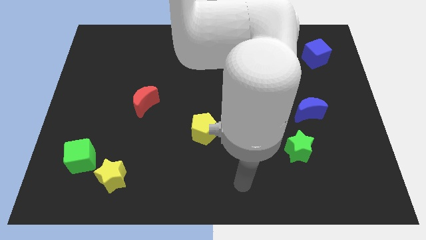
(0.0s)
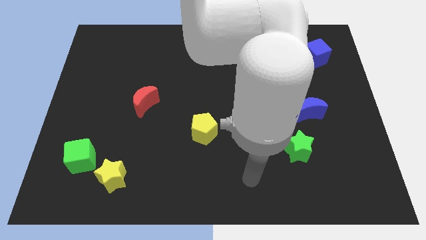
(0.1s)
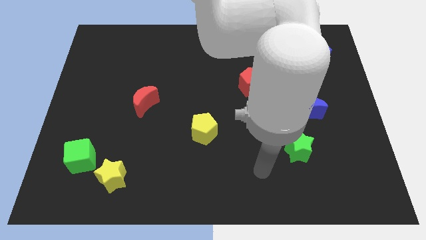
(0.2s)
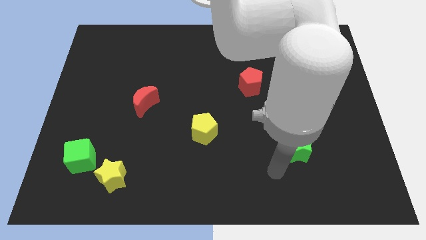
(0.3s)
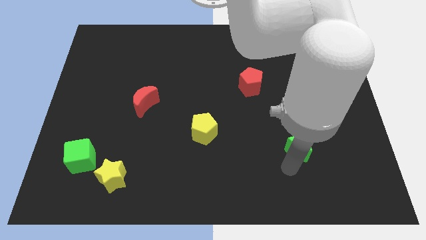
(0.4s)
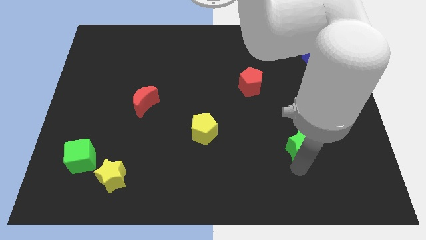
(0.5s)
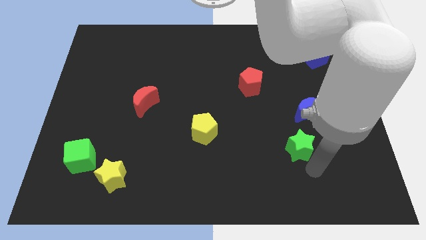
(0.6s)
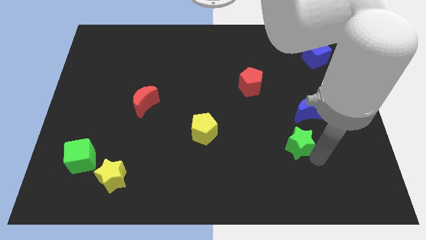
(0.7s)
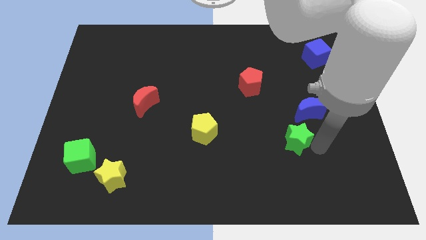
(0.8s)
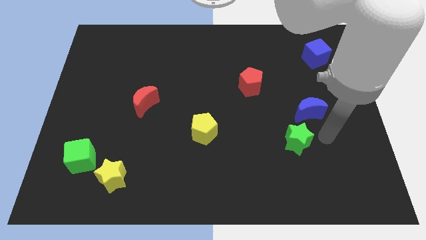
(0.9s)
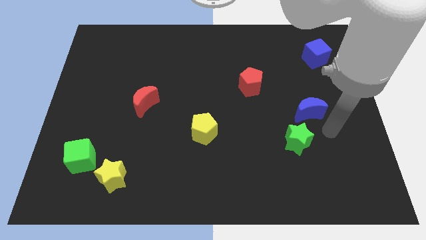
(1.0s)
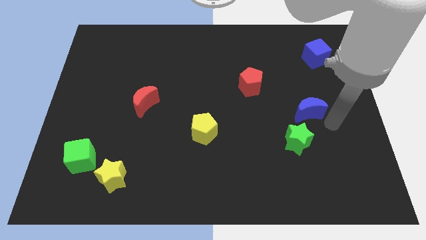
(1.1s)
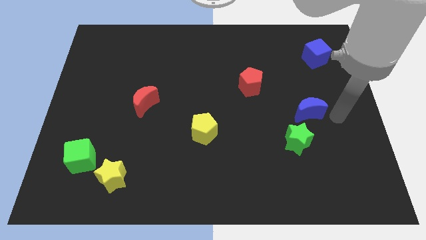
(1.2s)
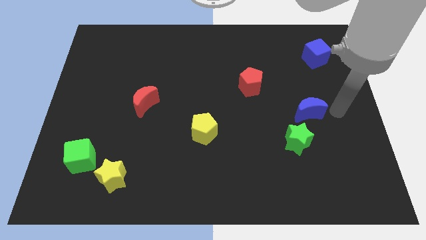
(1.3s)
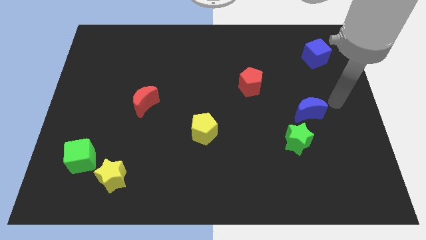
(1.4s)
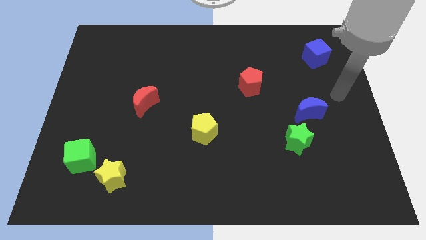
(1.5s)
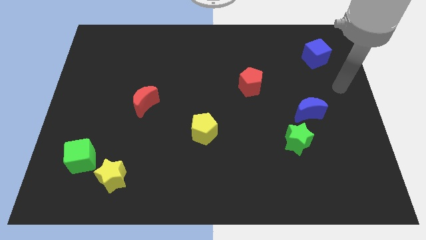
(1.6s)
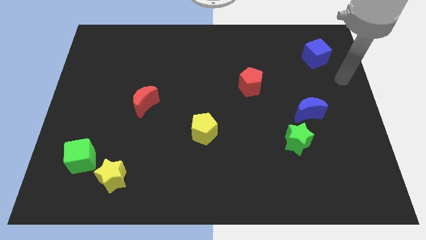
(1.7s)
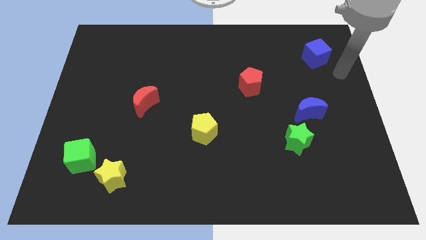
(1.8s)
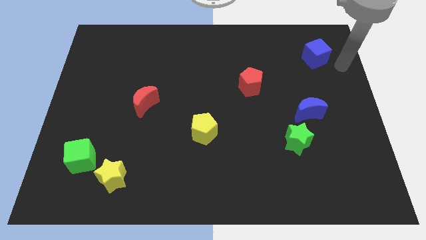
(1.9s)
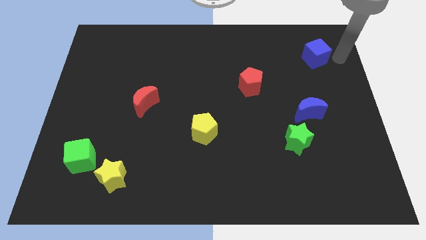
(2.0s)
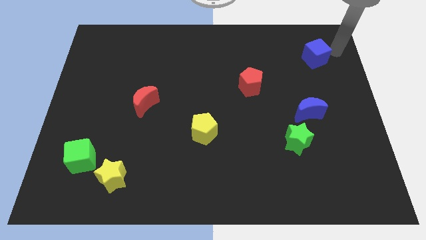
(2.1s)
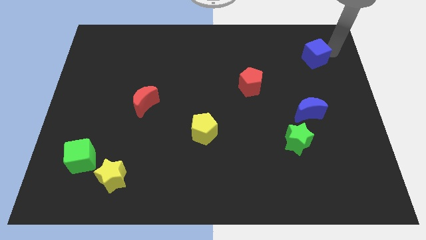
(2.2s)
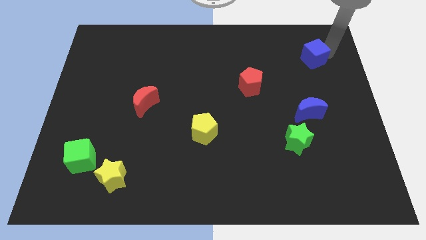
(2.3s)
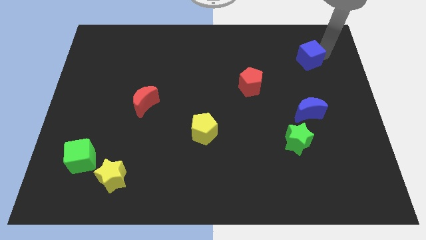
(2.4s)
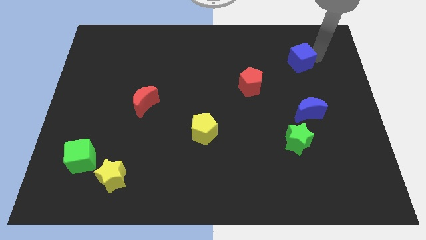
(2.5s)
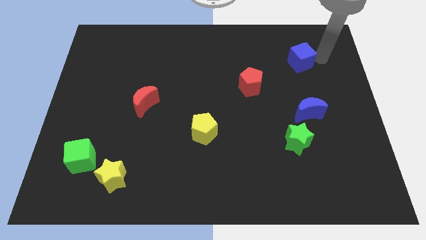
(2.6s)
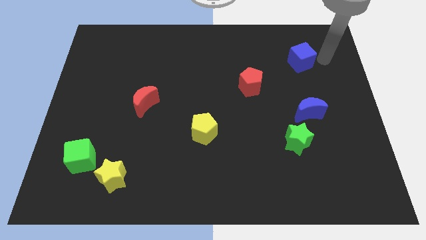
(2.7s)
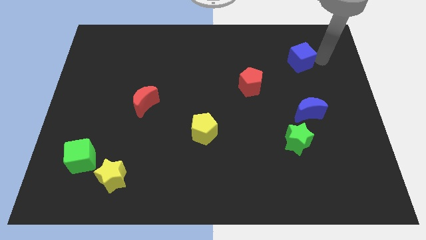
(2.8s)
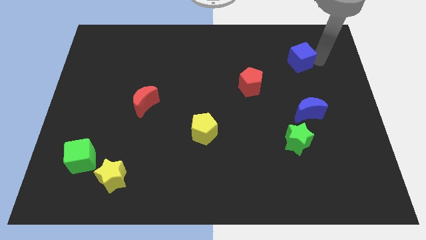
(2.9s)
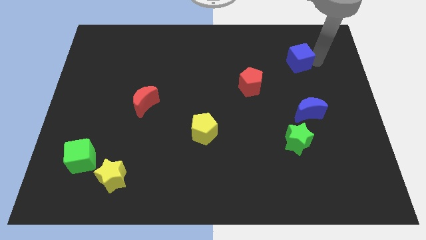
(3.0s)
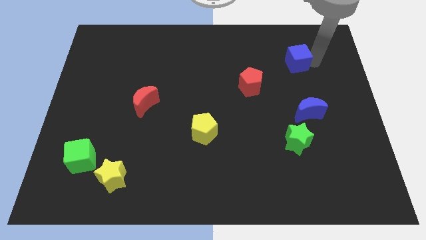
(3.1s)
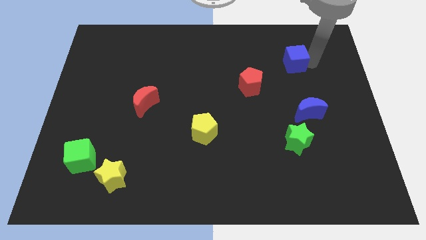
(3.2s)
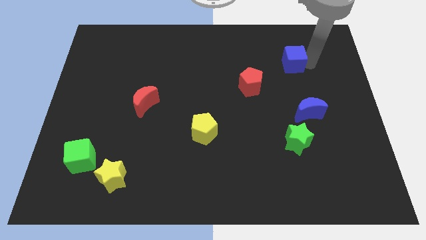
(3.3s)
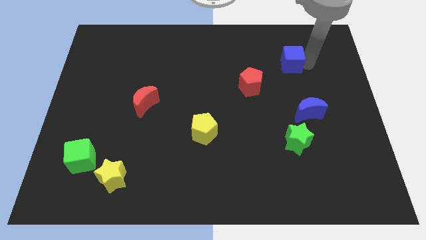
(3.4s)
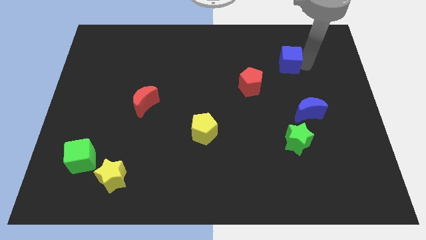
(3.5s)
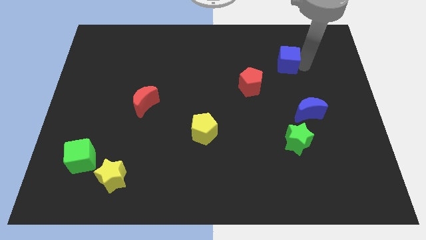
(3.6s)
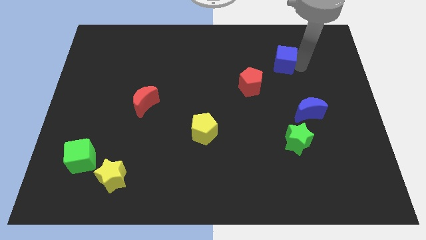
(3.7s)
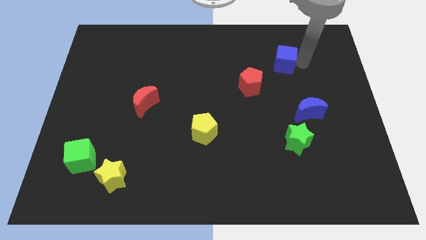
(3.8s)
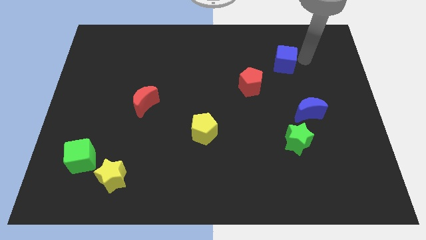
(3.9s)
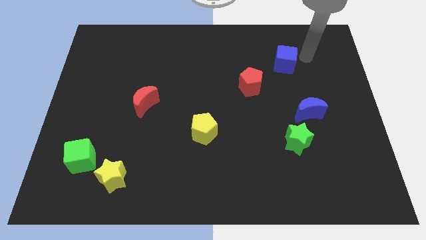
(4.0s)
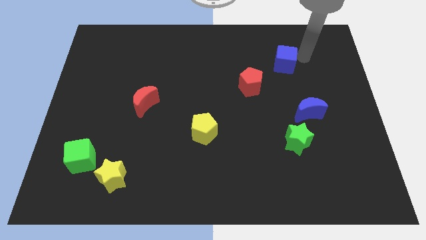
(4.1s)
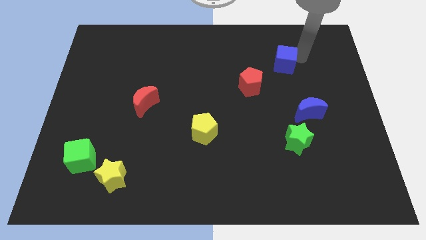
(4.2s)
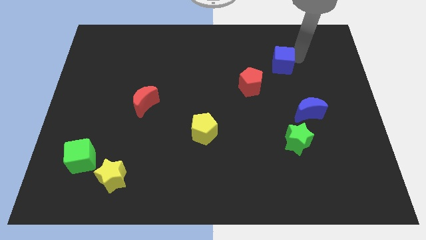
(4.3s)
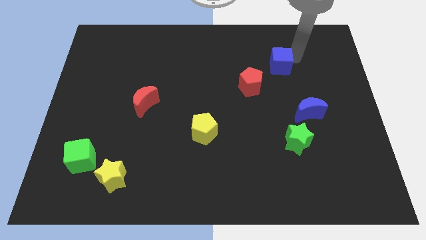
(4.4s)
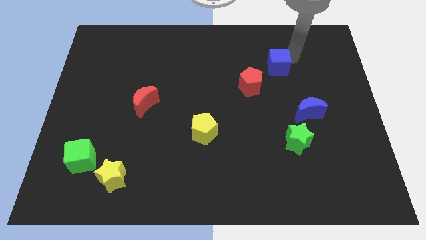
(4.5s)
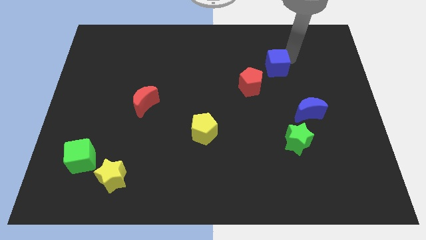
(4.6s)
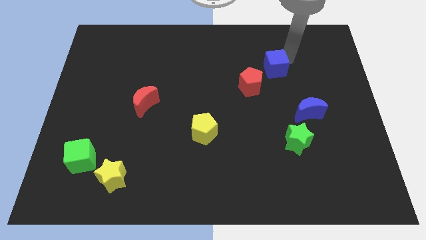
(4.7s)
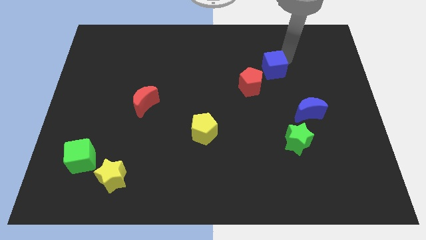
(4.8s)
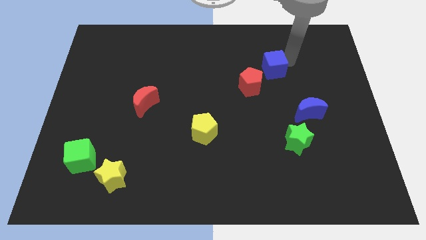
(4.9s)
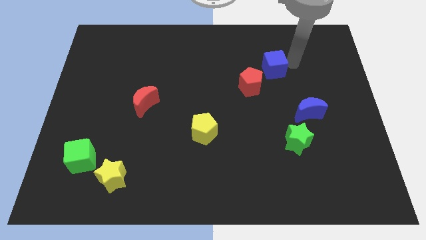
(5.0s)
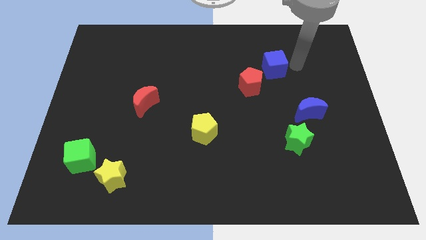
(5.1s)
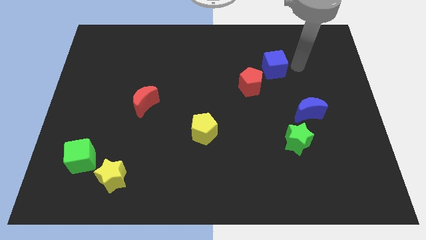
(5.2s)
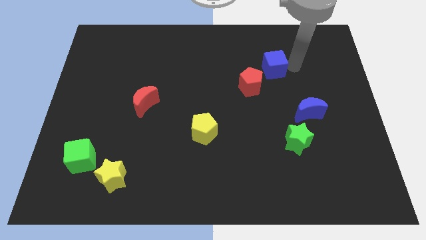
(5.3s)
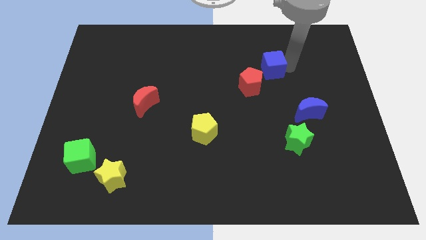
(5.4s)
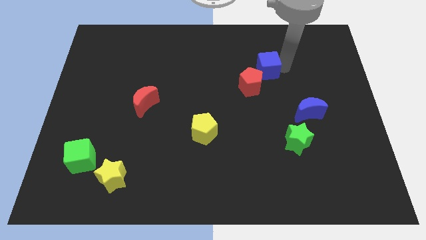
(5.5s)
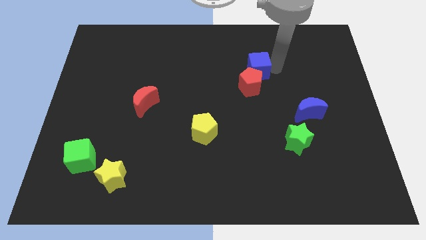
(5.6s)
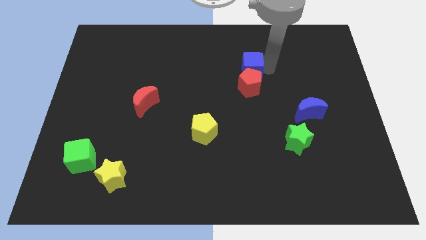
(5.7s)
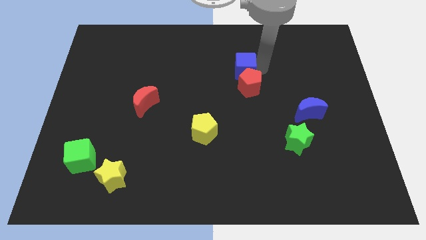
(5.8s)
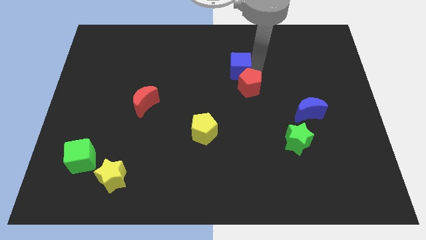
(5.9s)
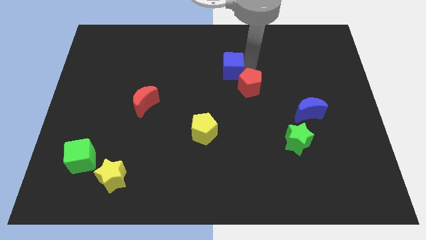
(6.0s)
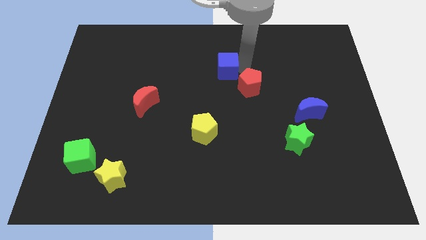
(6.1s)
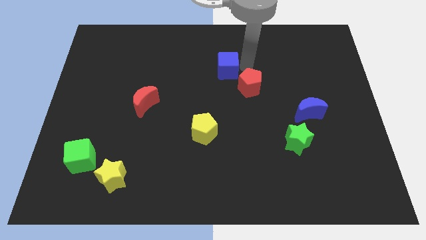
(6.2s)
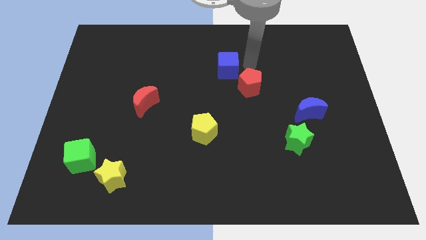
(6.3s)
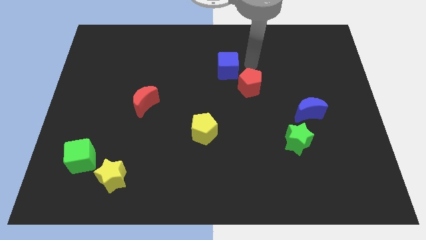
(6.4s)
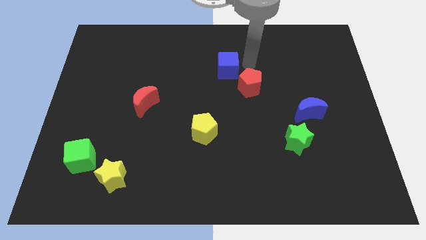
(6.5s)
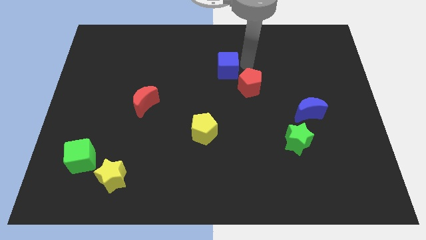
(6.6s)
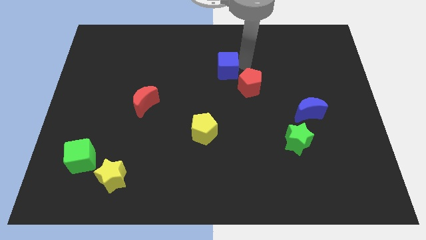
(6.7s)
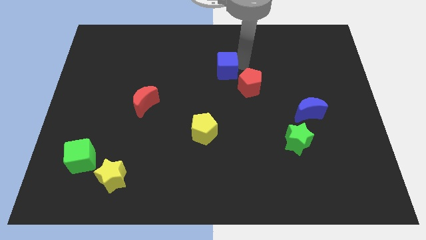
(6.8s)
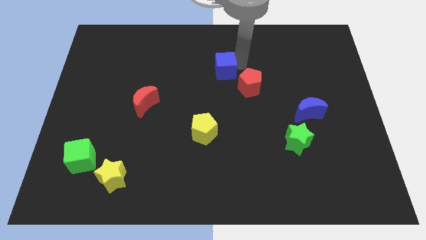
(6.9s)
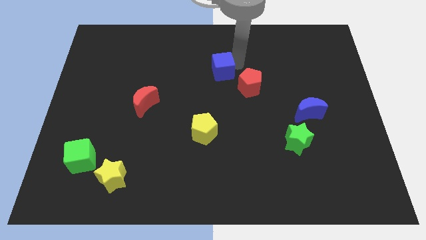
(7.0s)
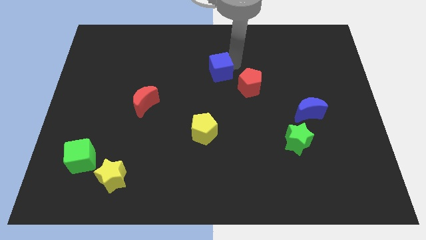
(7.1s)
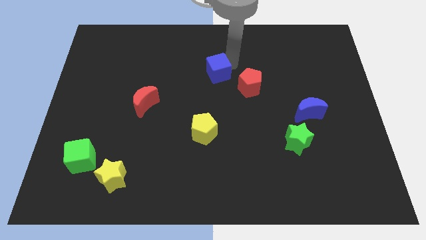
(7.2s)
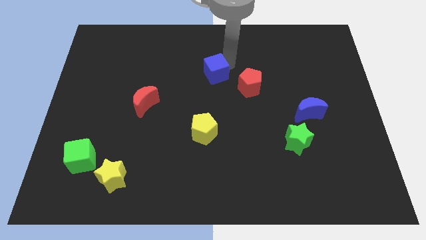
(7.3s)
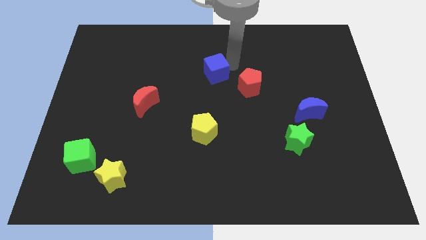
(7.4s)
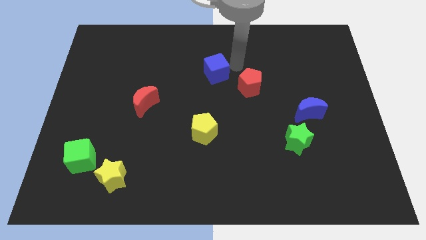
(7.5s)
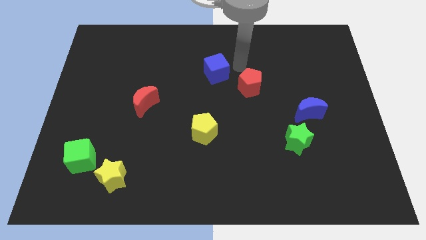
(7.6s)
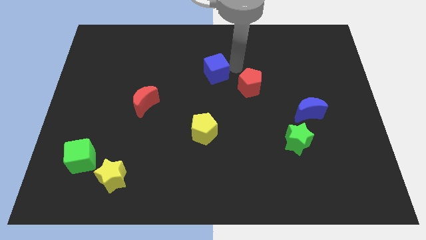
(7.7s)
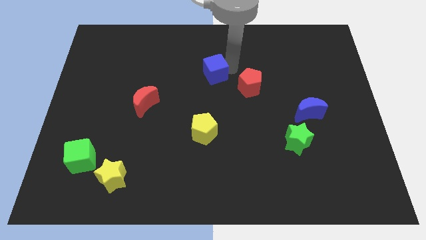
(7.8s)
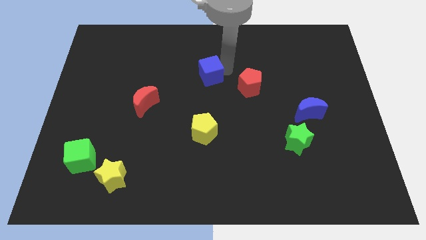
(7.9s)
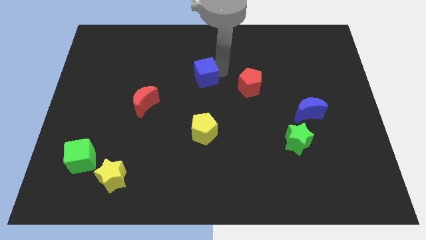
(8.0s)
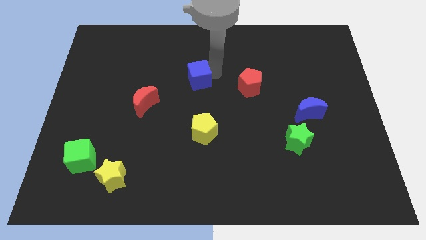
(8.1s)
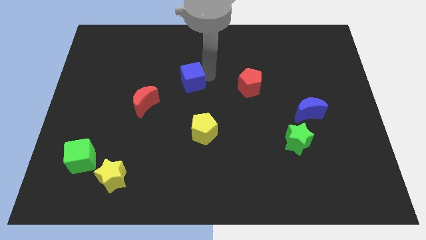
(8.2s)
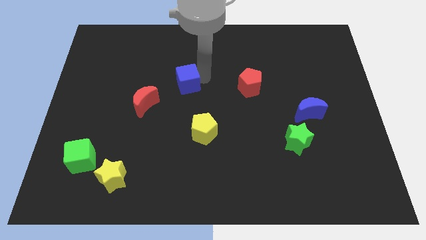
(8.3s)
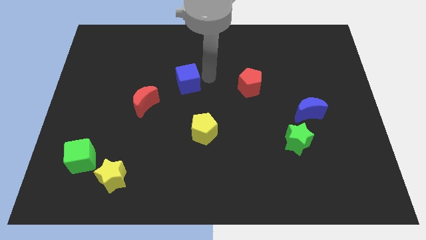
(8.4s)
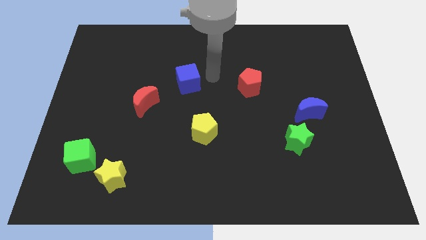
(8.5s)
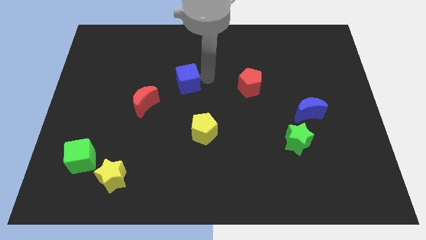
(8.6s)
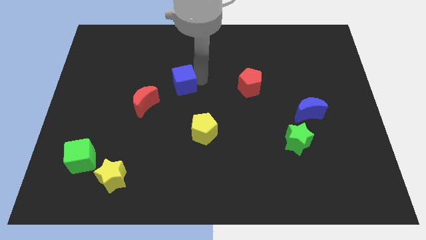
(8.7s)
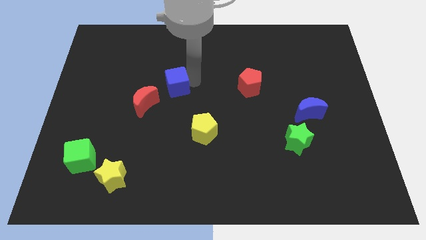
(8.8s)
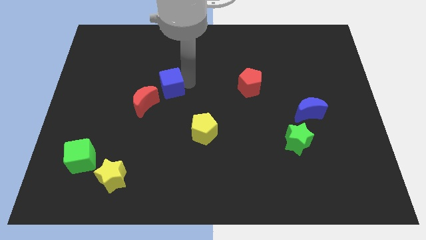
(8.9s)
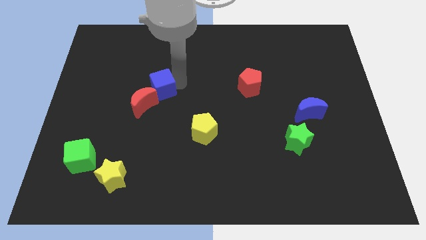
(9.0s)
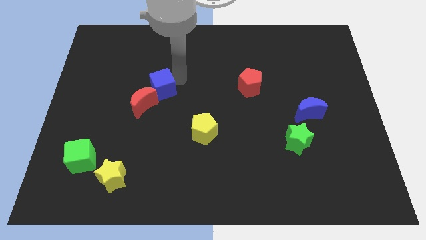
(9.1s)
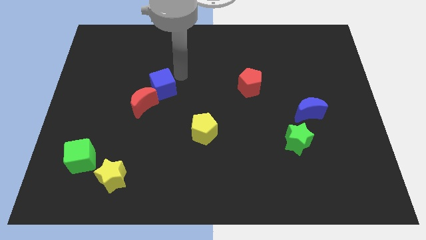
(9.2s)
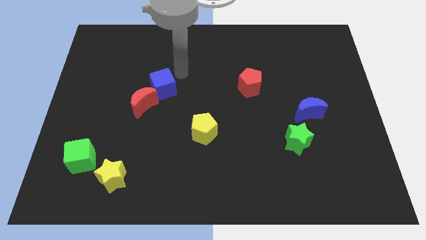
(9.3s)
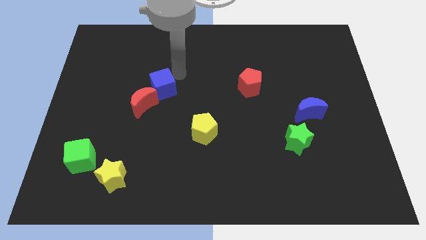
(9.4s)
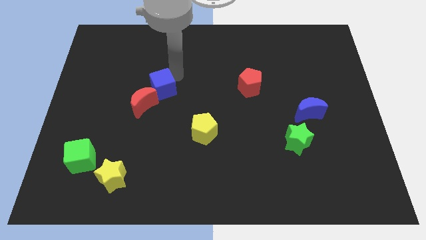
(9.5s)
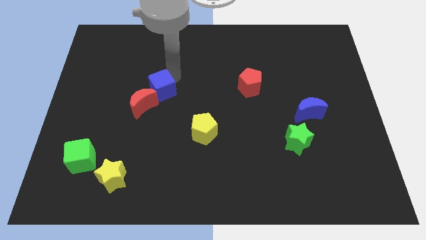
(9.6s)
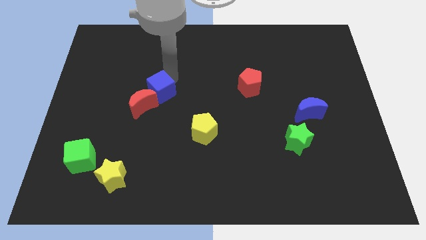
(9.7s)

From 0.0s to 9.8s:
move the blue cube close to the red moon
